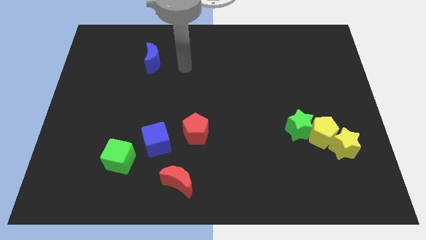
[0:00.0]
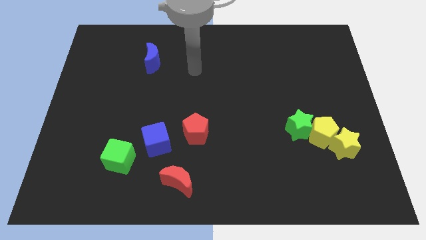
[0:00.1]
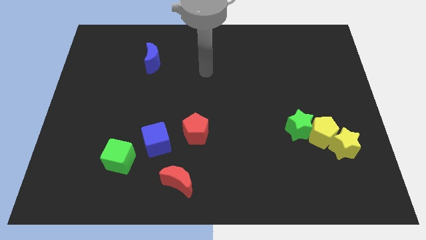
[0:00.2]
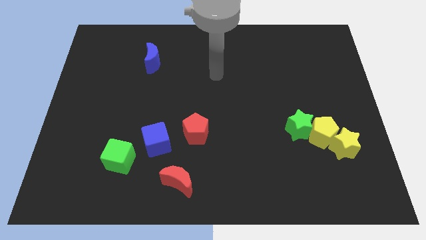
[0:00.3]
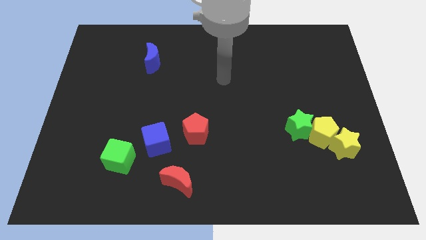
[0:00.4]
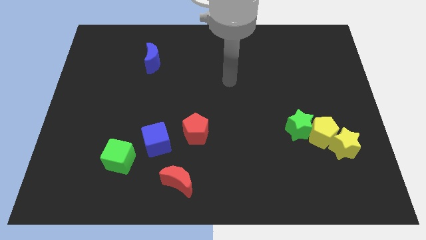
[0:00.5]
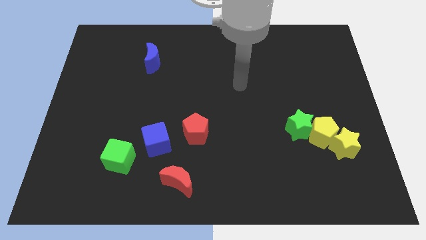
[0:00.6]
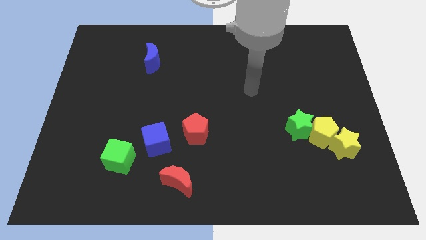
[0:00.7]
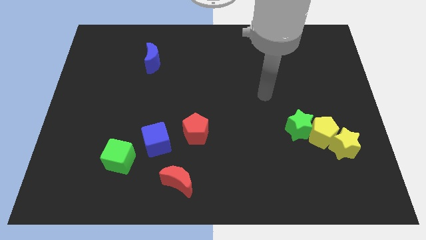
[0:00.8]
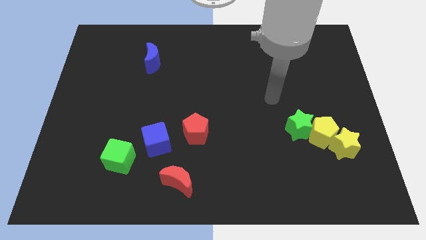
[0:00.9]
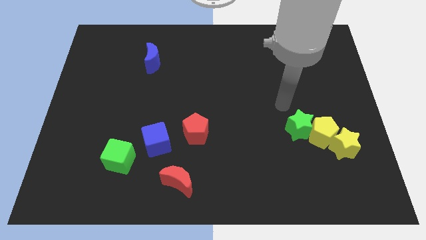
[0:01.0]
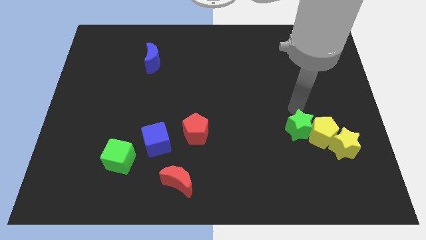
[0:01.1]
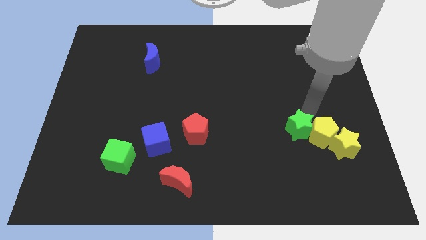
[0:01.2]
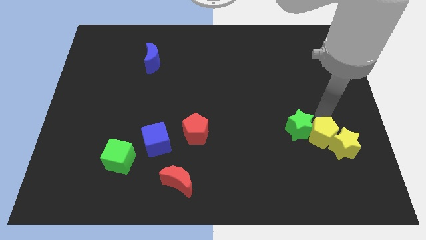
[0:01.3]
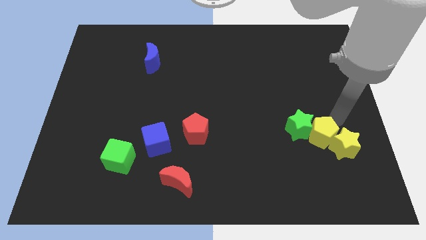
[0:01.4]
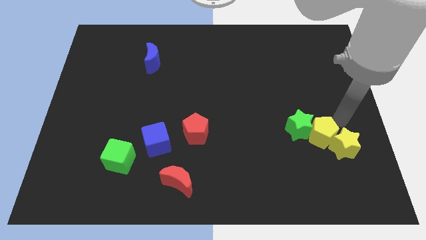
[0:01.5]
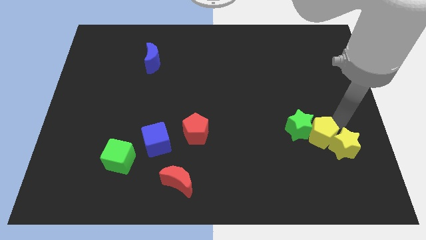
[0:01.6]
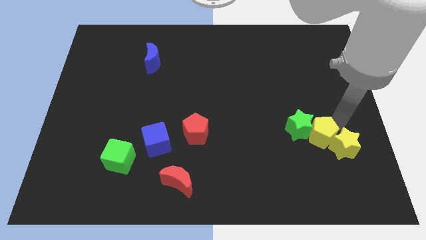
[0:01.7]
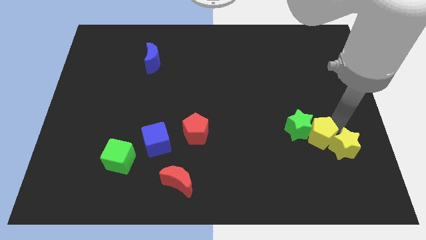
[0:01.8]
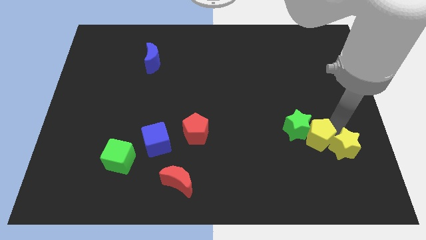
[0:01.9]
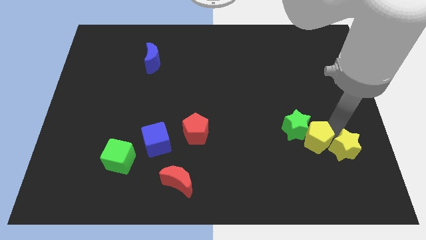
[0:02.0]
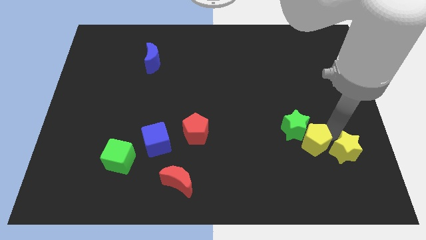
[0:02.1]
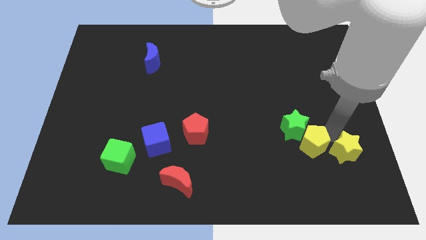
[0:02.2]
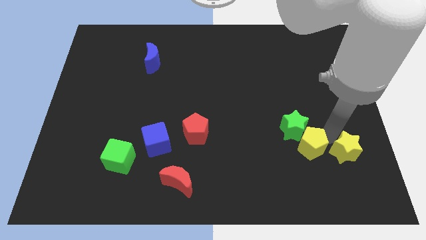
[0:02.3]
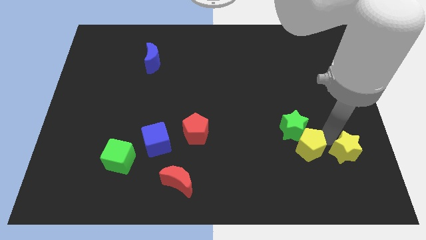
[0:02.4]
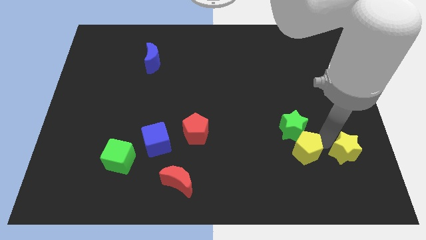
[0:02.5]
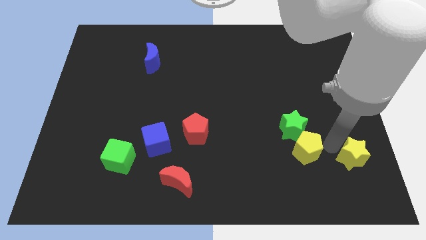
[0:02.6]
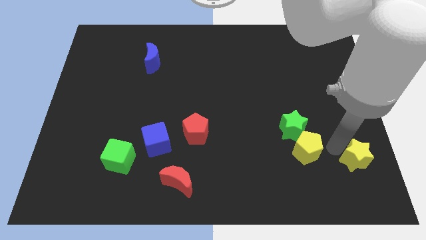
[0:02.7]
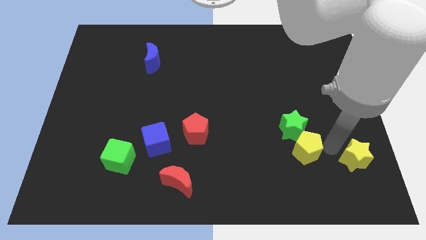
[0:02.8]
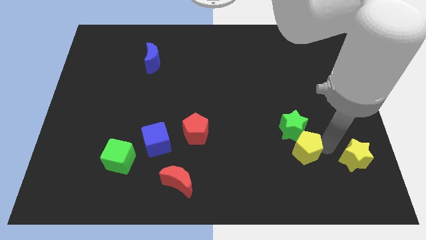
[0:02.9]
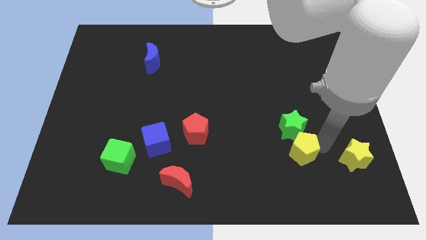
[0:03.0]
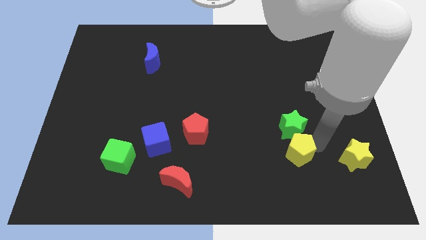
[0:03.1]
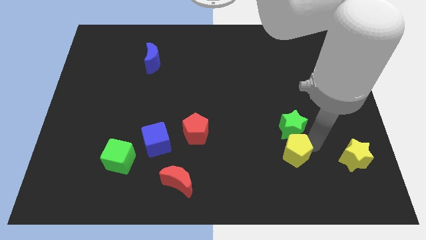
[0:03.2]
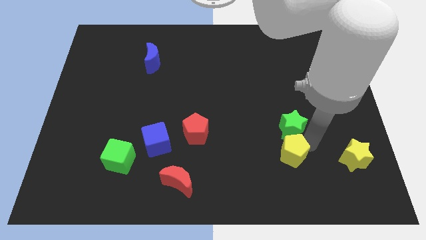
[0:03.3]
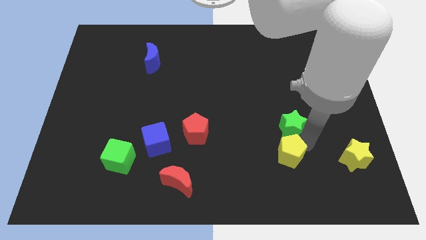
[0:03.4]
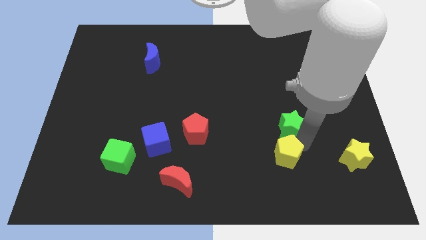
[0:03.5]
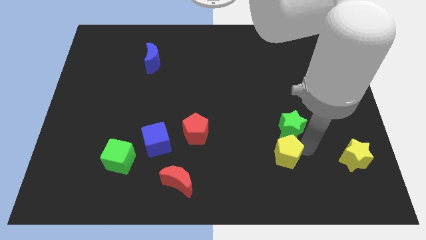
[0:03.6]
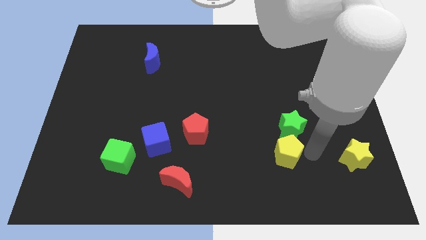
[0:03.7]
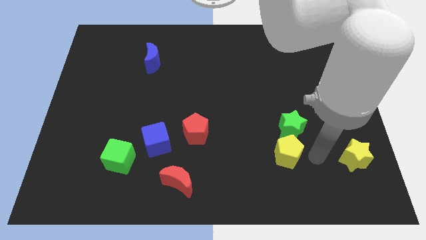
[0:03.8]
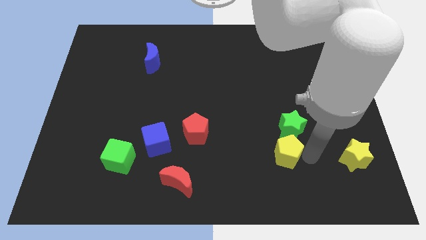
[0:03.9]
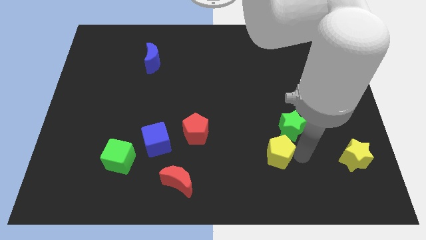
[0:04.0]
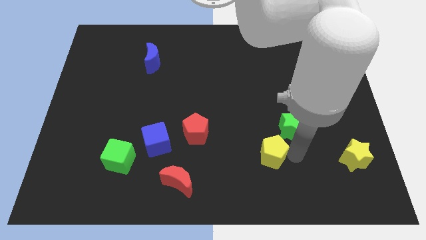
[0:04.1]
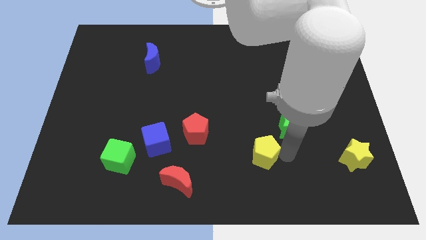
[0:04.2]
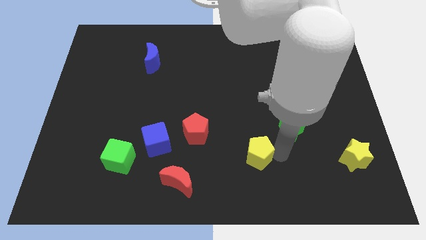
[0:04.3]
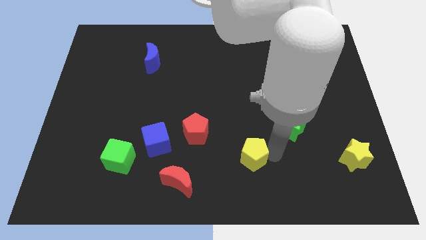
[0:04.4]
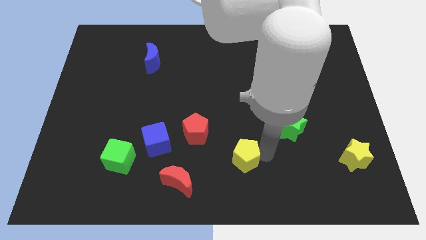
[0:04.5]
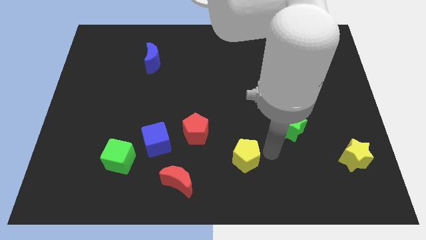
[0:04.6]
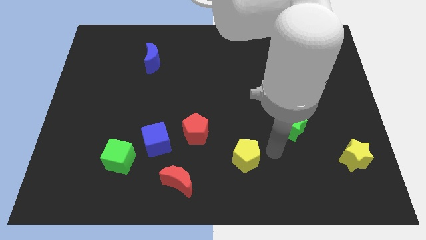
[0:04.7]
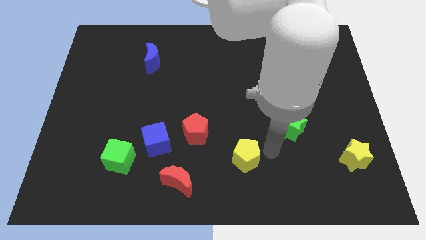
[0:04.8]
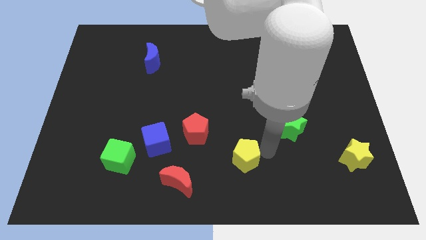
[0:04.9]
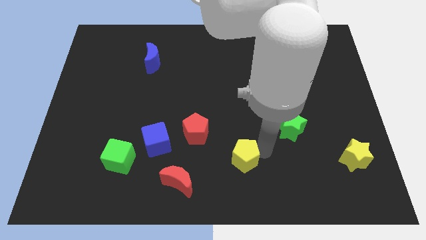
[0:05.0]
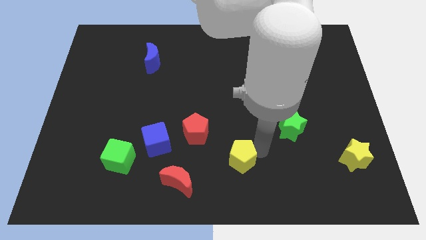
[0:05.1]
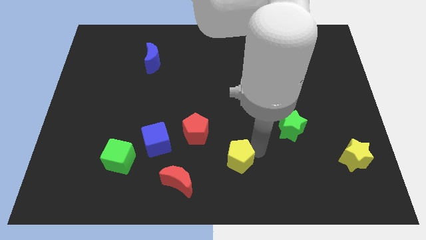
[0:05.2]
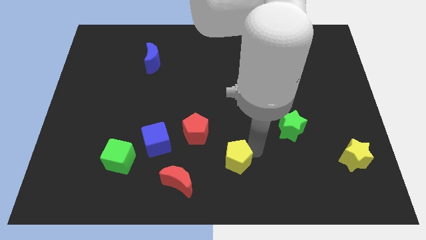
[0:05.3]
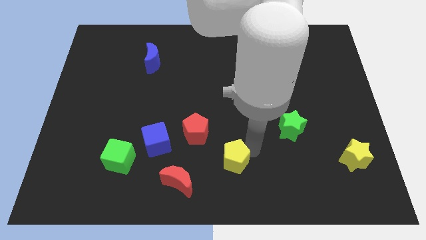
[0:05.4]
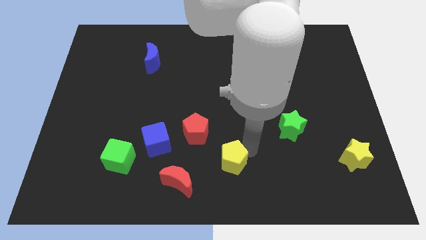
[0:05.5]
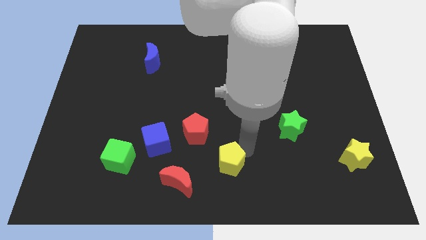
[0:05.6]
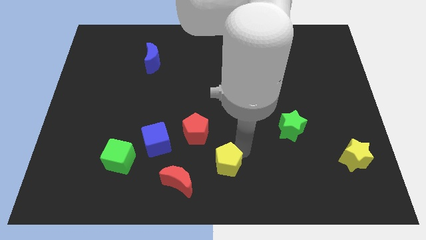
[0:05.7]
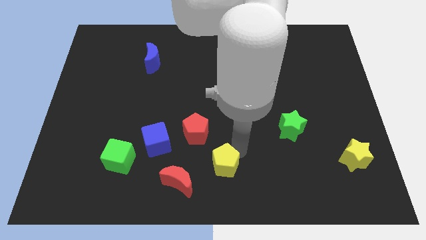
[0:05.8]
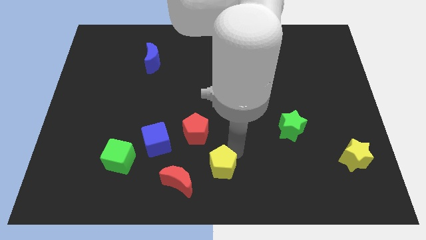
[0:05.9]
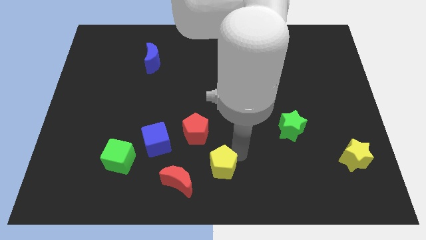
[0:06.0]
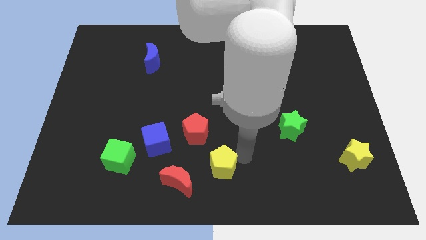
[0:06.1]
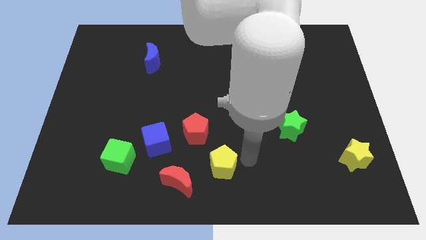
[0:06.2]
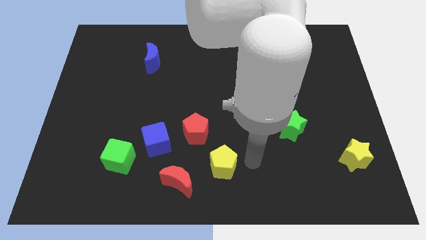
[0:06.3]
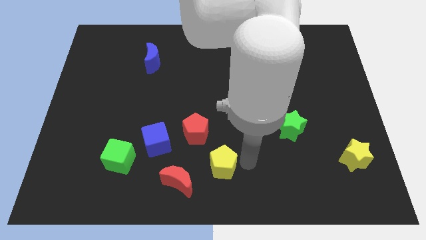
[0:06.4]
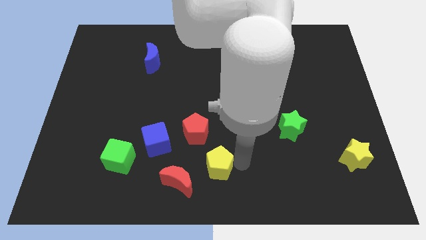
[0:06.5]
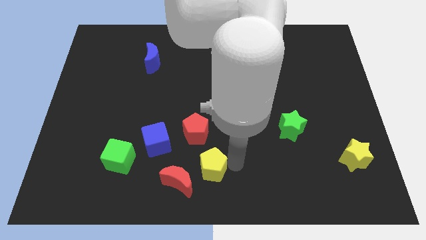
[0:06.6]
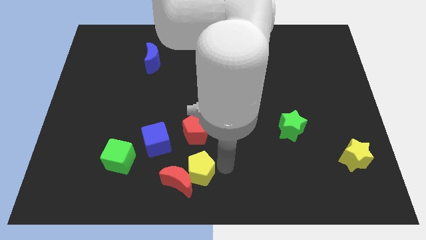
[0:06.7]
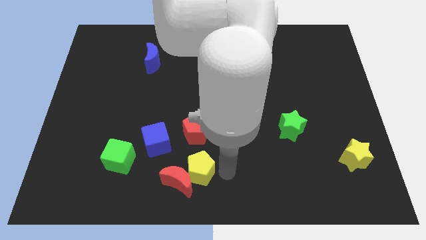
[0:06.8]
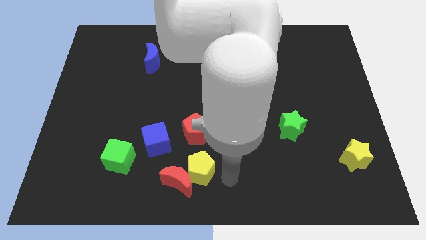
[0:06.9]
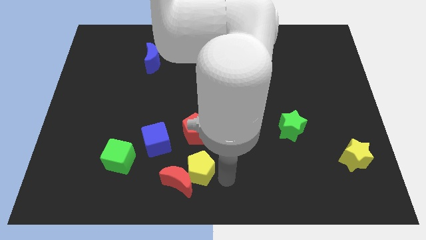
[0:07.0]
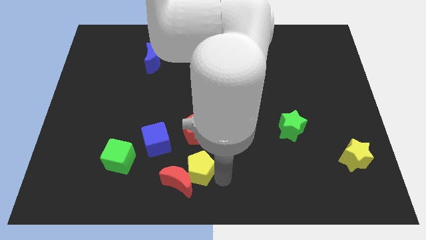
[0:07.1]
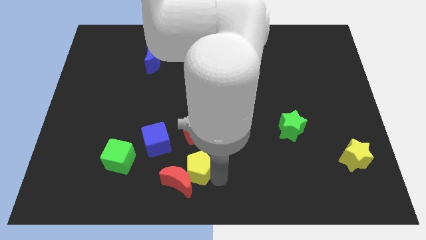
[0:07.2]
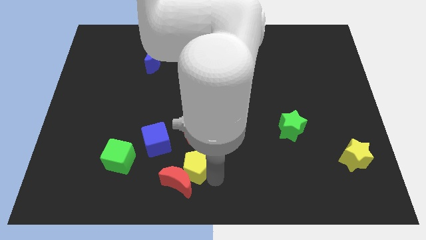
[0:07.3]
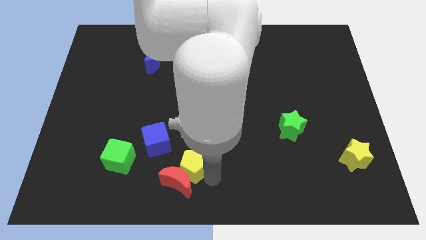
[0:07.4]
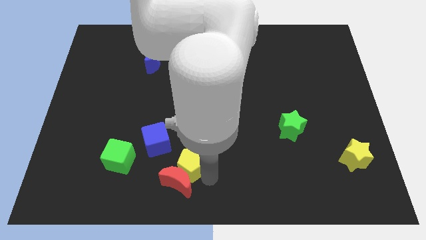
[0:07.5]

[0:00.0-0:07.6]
slide the yellow pentagon to the top left side of the red moon
